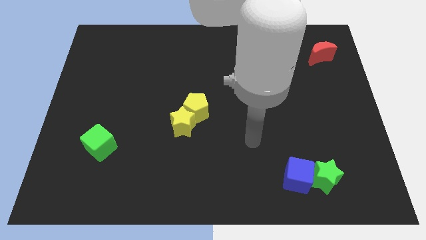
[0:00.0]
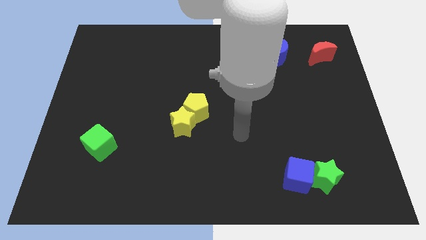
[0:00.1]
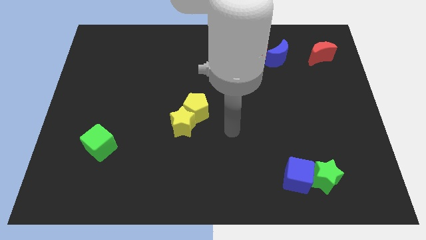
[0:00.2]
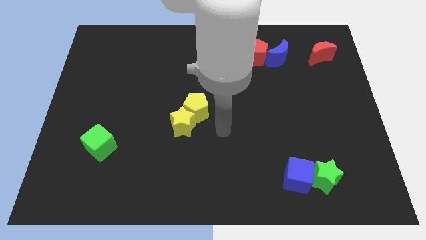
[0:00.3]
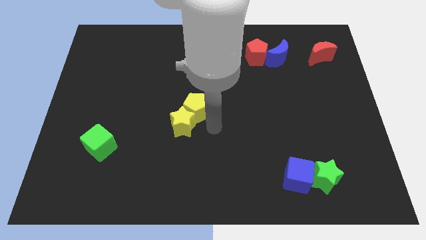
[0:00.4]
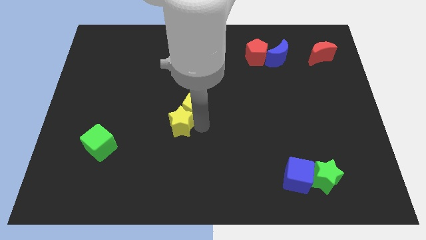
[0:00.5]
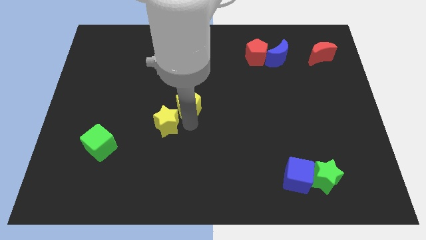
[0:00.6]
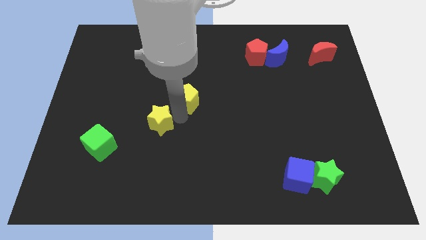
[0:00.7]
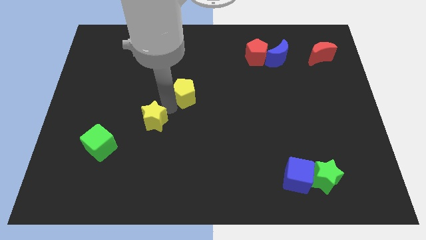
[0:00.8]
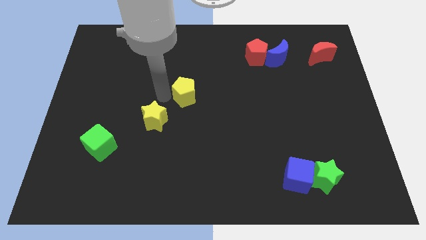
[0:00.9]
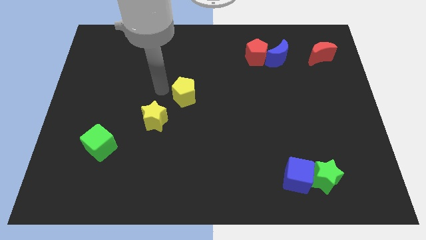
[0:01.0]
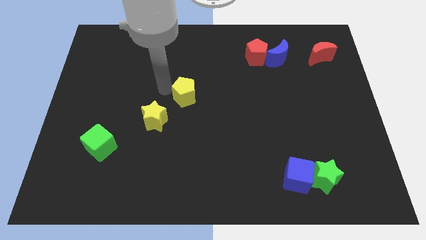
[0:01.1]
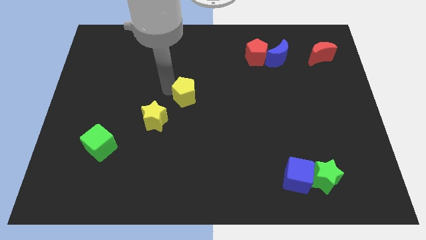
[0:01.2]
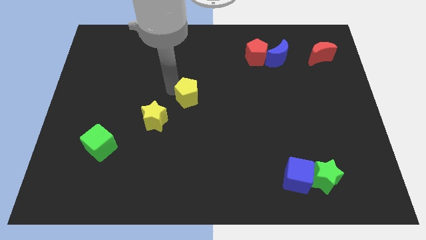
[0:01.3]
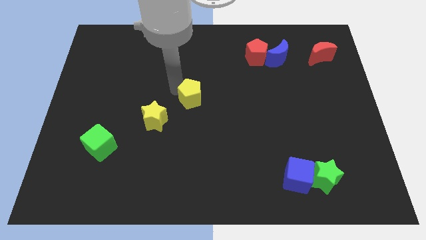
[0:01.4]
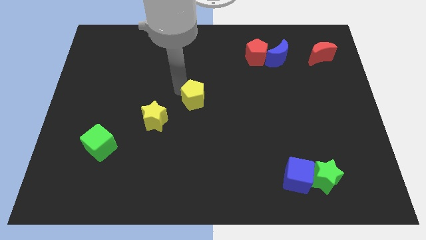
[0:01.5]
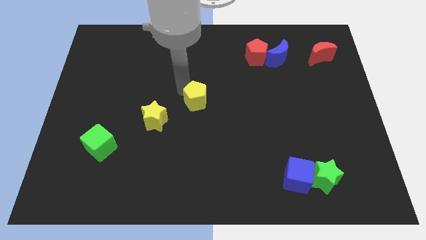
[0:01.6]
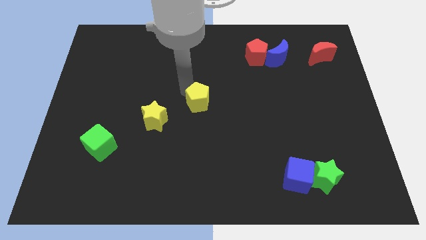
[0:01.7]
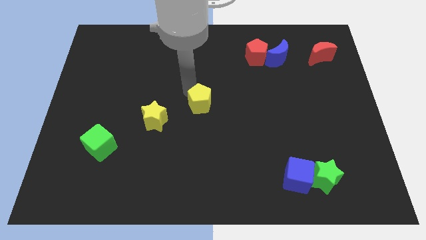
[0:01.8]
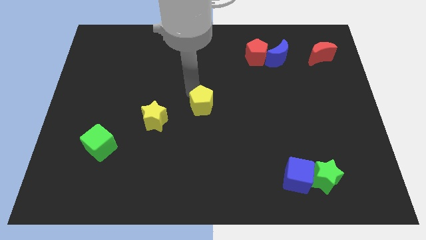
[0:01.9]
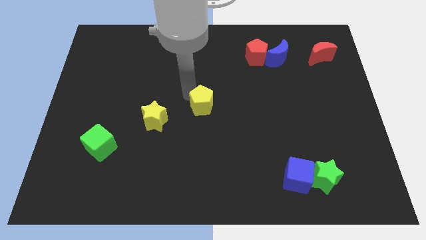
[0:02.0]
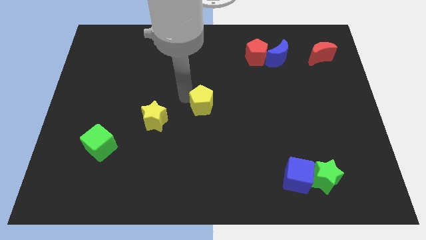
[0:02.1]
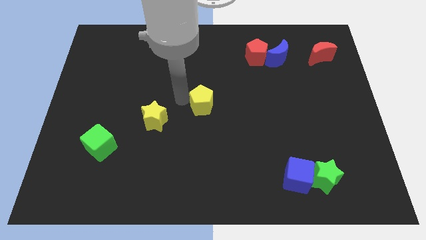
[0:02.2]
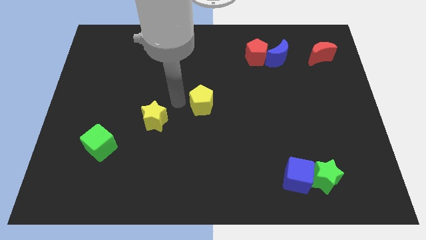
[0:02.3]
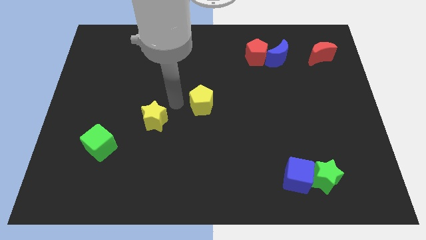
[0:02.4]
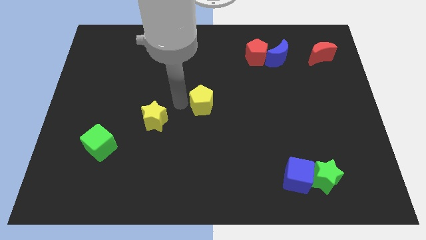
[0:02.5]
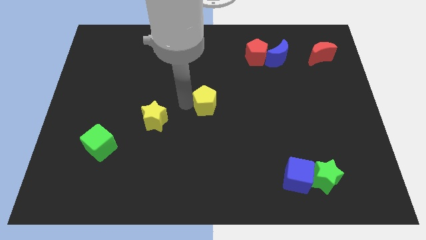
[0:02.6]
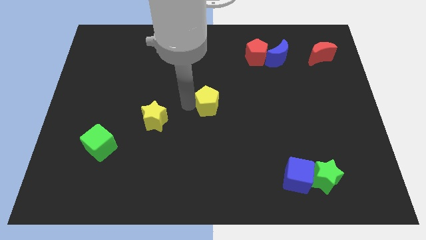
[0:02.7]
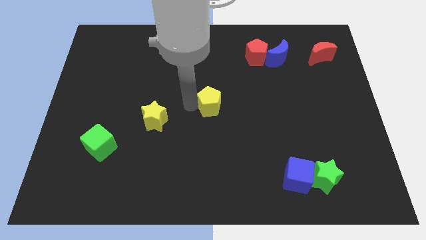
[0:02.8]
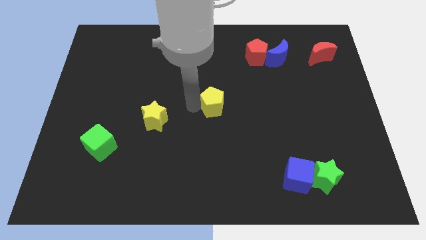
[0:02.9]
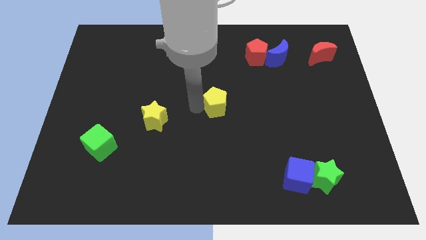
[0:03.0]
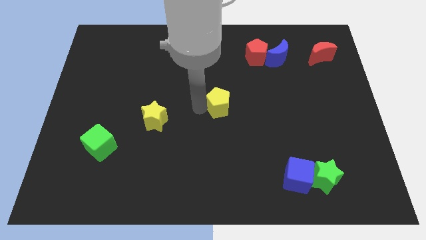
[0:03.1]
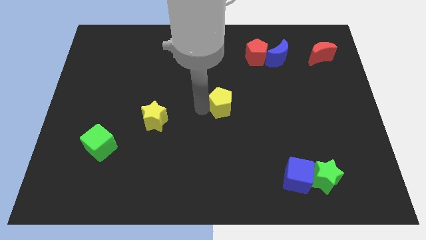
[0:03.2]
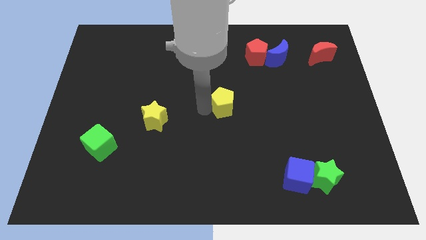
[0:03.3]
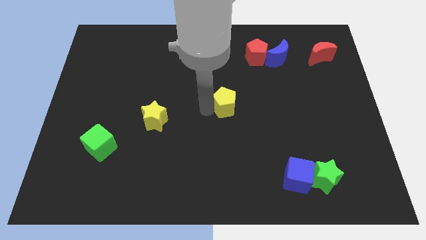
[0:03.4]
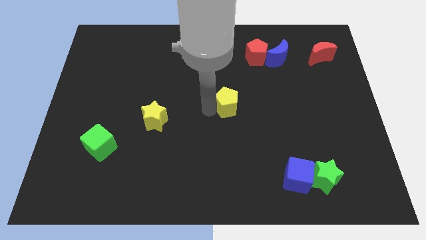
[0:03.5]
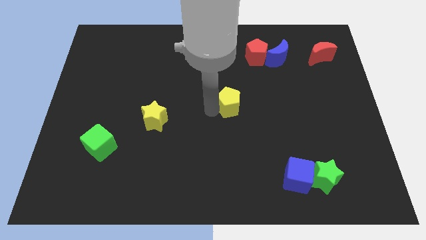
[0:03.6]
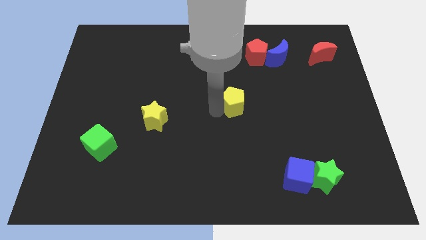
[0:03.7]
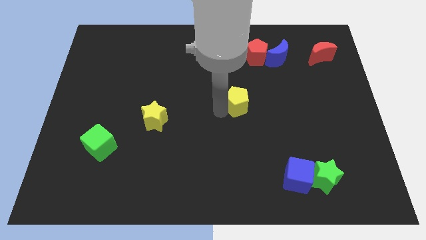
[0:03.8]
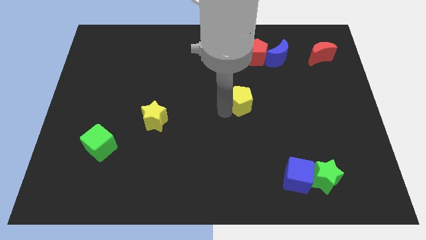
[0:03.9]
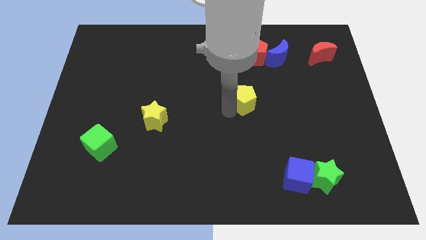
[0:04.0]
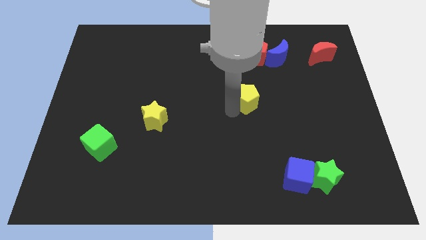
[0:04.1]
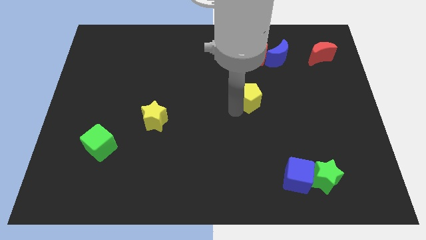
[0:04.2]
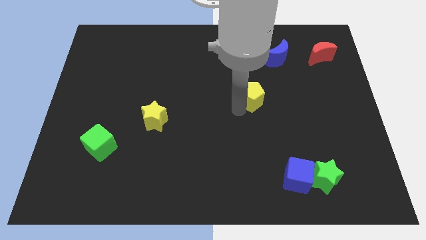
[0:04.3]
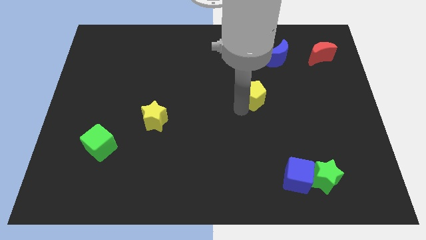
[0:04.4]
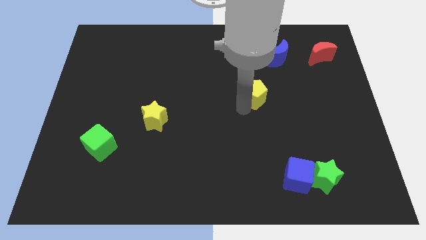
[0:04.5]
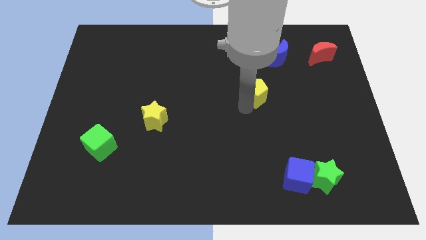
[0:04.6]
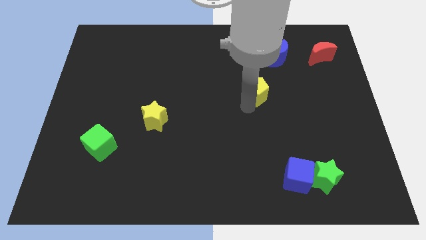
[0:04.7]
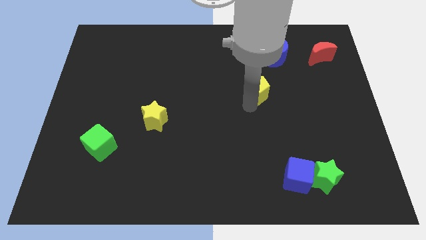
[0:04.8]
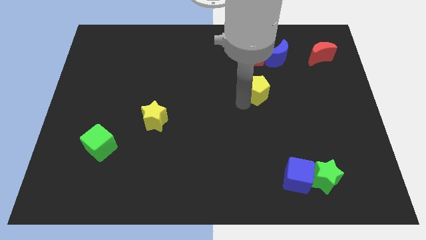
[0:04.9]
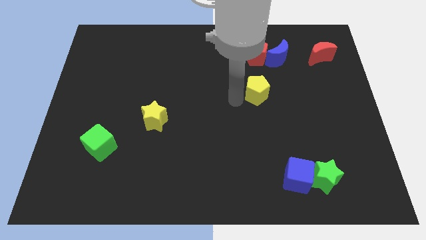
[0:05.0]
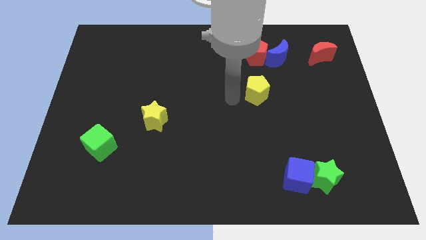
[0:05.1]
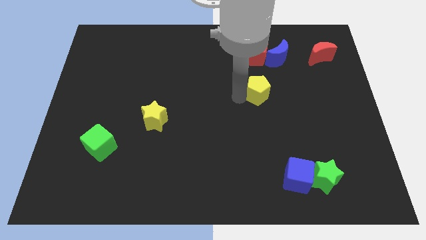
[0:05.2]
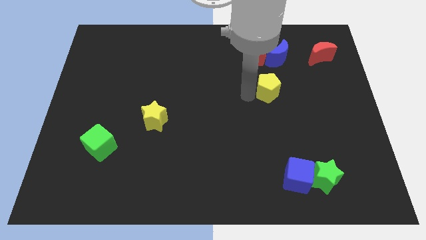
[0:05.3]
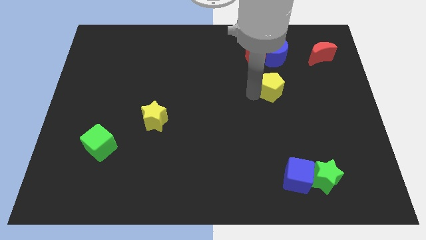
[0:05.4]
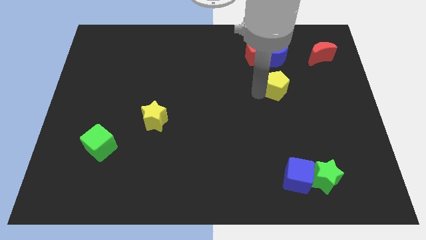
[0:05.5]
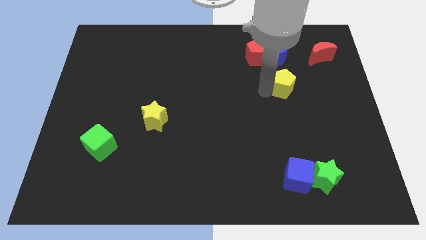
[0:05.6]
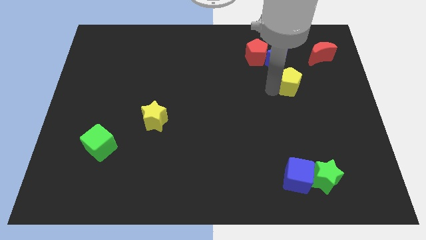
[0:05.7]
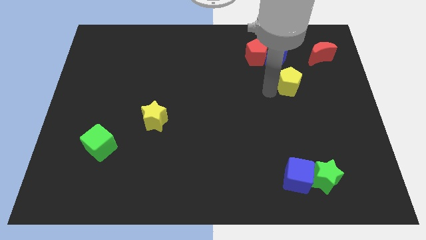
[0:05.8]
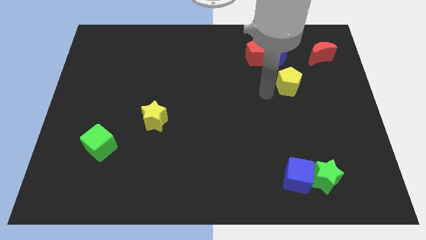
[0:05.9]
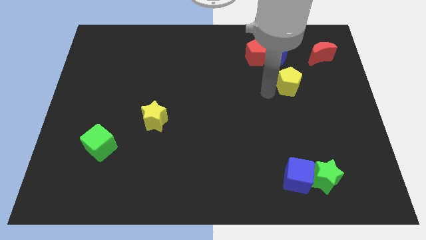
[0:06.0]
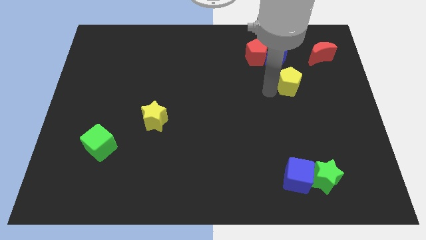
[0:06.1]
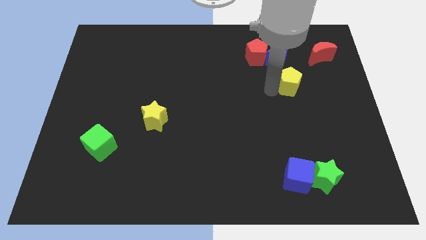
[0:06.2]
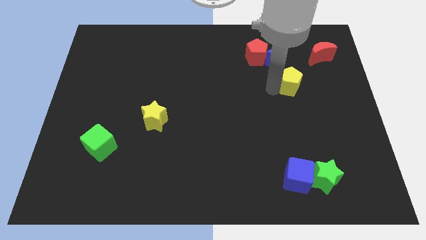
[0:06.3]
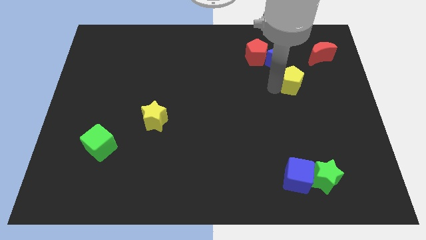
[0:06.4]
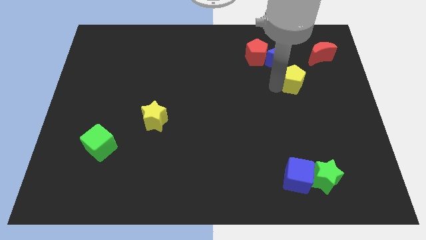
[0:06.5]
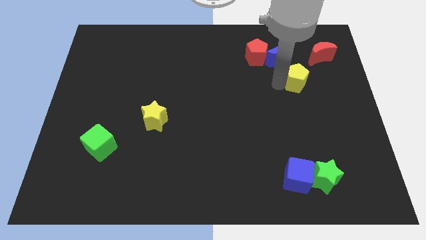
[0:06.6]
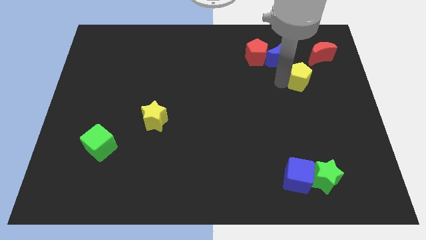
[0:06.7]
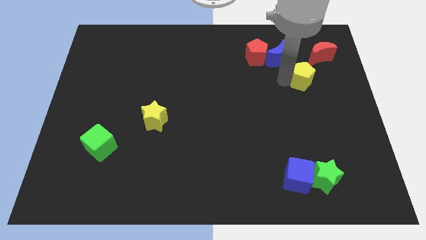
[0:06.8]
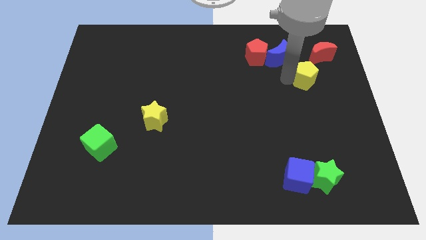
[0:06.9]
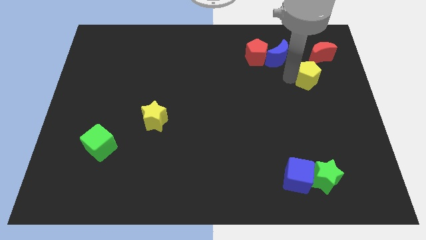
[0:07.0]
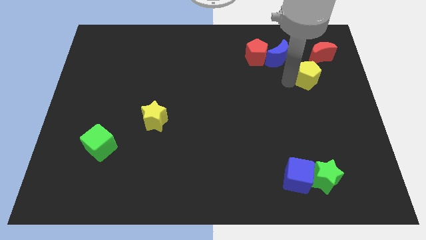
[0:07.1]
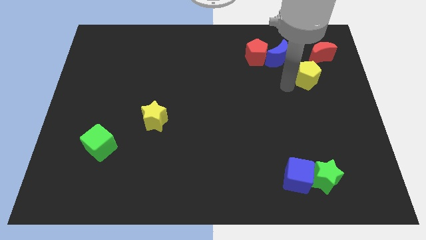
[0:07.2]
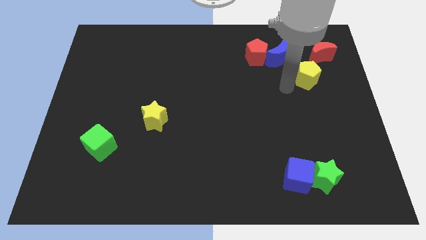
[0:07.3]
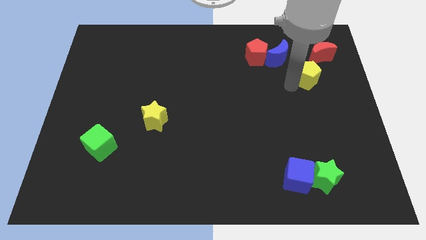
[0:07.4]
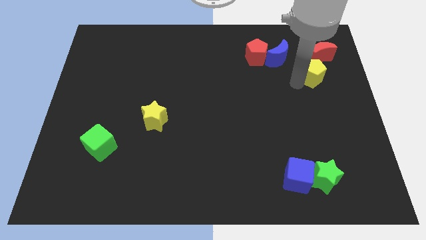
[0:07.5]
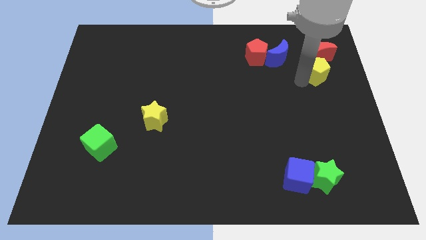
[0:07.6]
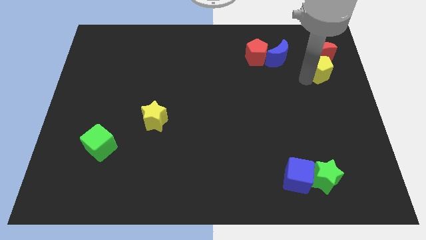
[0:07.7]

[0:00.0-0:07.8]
push the yellow pentagon to the right side of the blue moon
